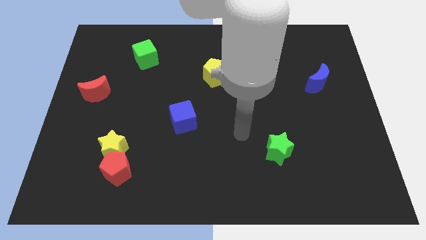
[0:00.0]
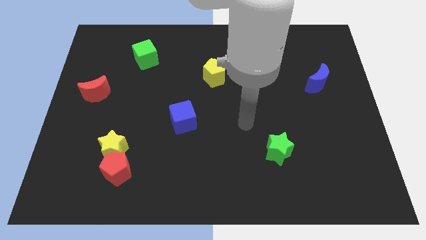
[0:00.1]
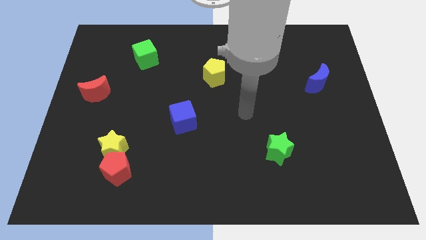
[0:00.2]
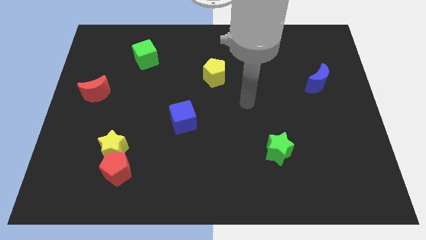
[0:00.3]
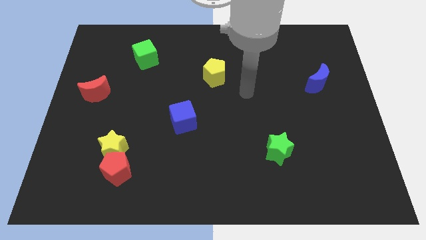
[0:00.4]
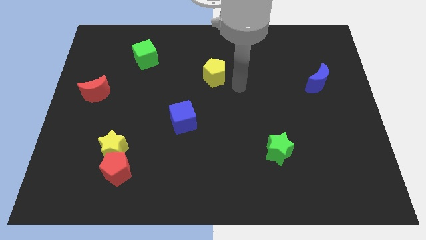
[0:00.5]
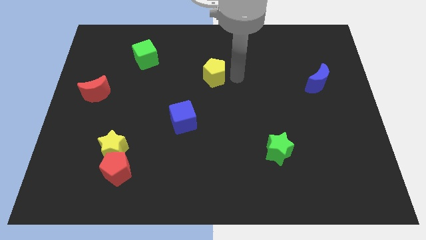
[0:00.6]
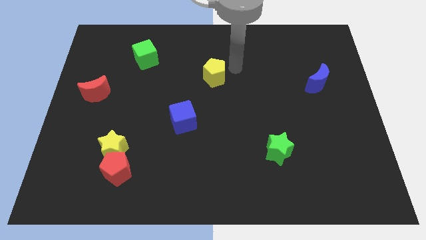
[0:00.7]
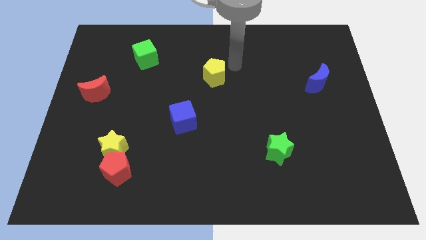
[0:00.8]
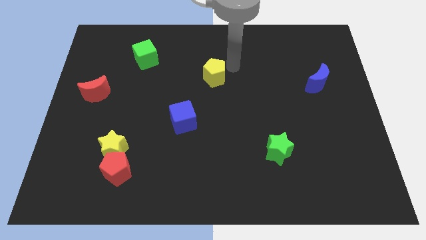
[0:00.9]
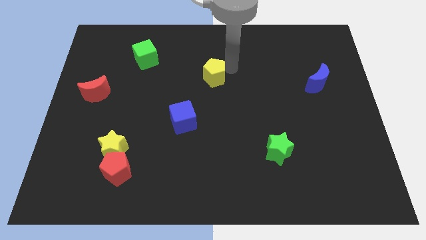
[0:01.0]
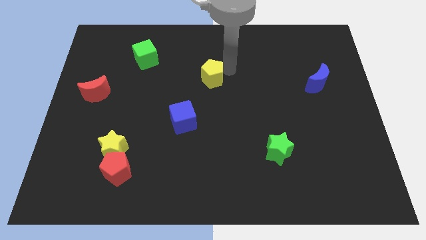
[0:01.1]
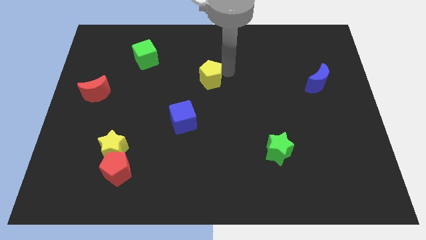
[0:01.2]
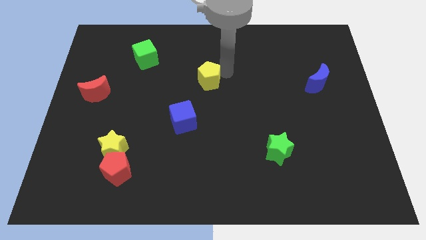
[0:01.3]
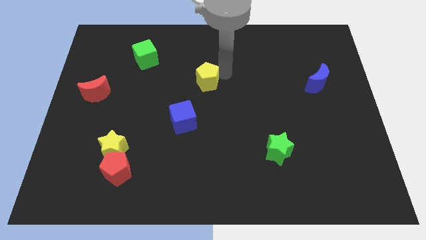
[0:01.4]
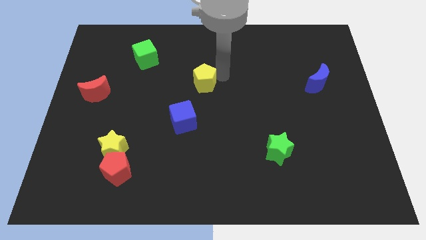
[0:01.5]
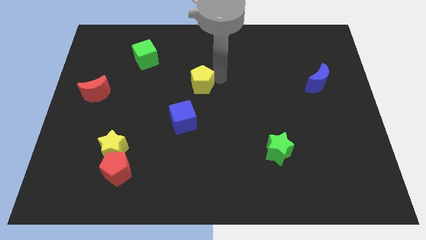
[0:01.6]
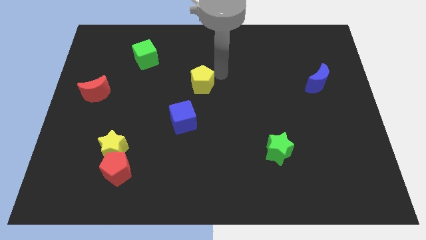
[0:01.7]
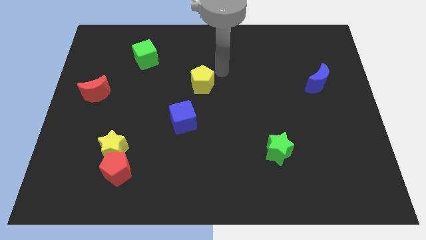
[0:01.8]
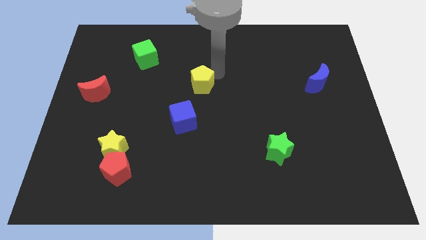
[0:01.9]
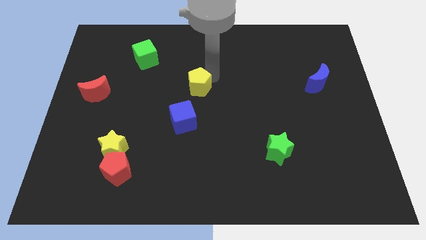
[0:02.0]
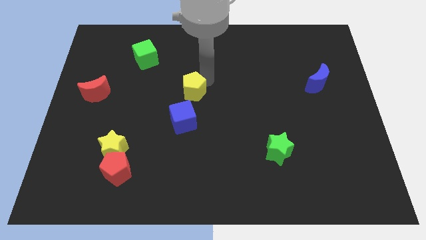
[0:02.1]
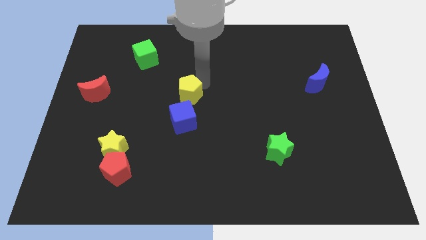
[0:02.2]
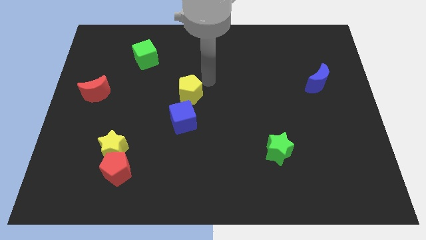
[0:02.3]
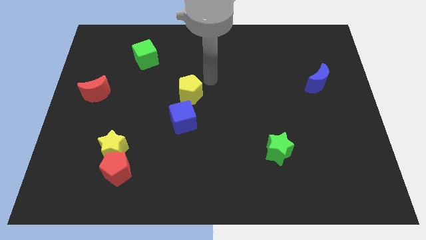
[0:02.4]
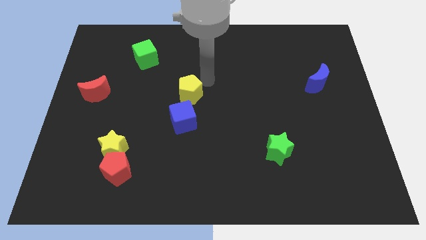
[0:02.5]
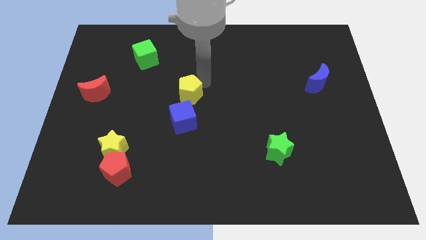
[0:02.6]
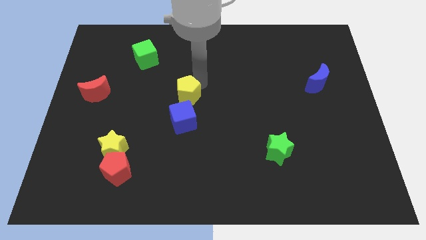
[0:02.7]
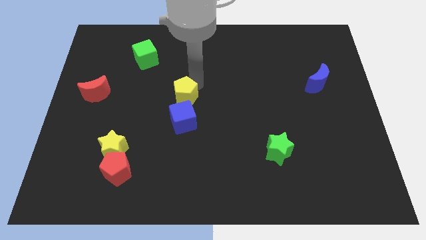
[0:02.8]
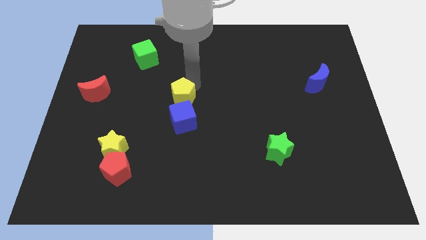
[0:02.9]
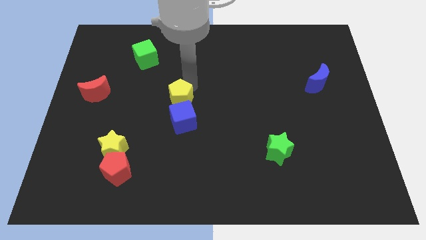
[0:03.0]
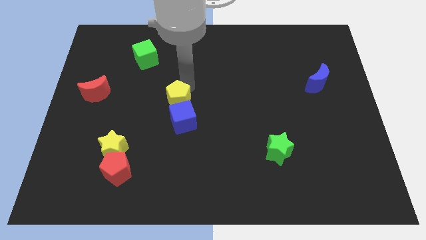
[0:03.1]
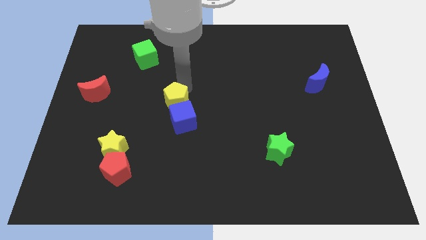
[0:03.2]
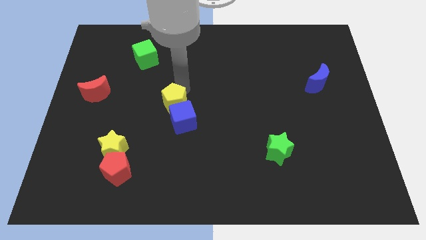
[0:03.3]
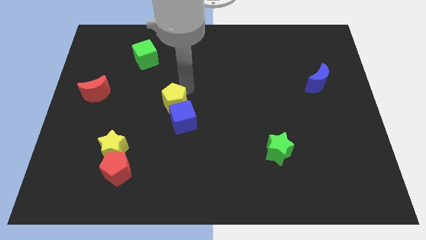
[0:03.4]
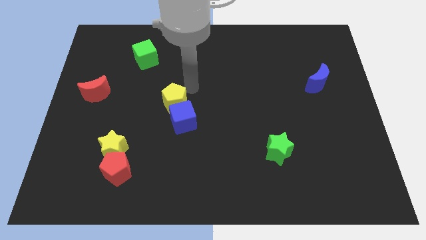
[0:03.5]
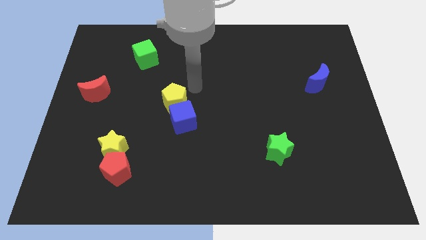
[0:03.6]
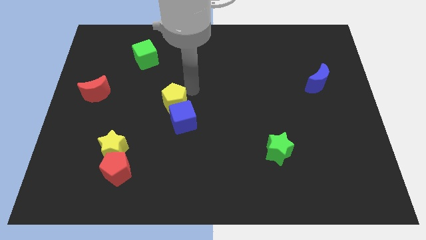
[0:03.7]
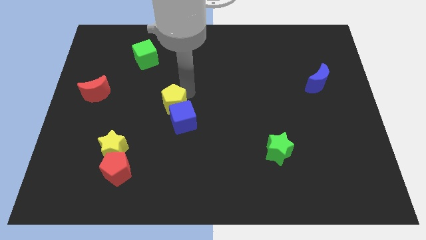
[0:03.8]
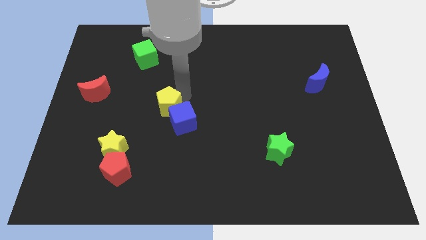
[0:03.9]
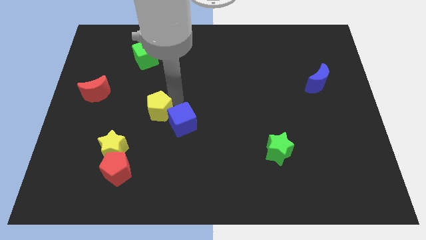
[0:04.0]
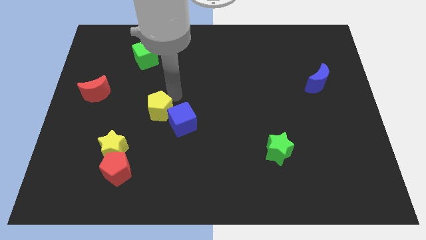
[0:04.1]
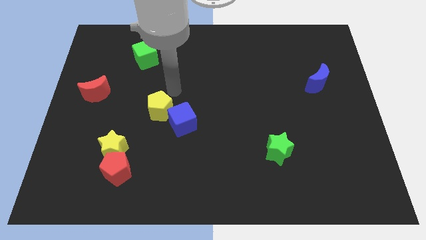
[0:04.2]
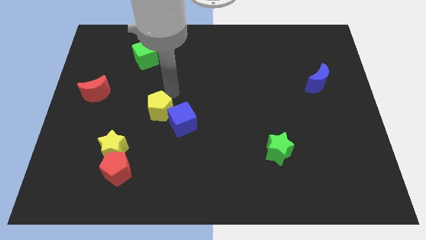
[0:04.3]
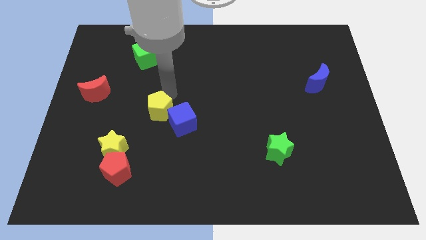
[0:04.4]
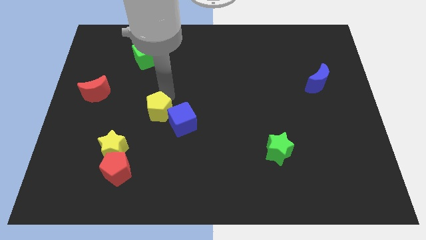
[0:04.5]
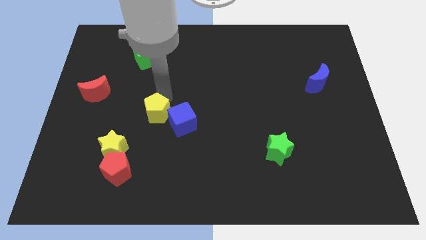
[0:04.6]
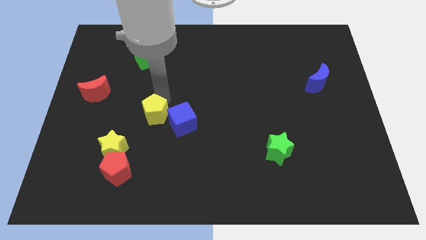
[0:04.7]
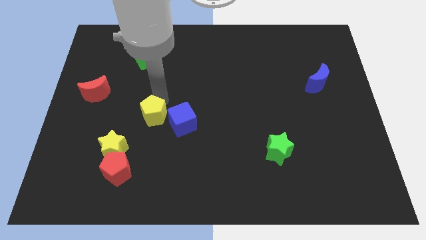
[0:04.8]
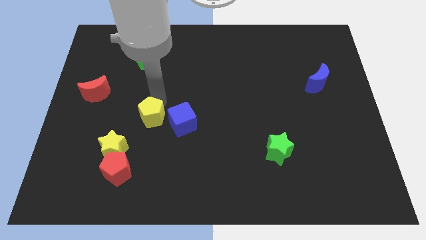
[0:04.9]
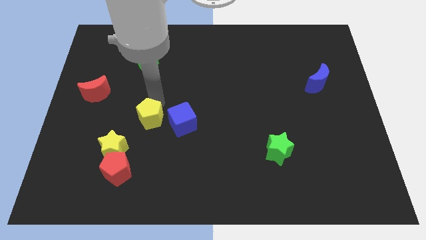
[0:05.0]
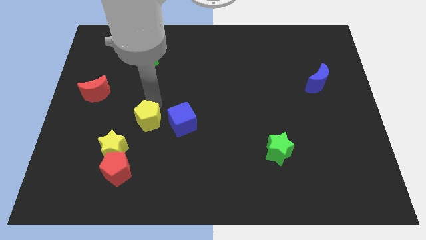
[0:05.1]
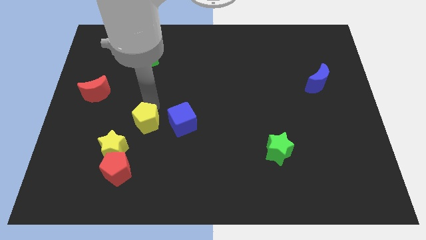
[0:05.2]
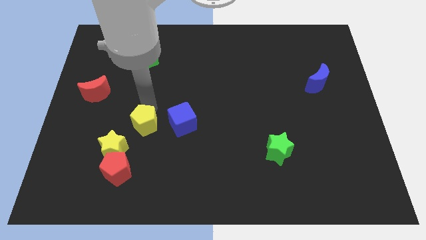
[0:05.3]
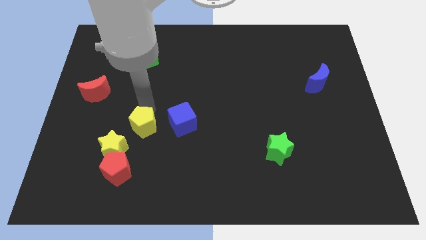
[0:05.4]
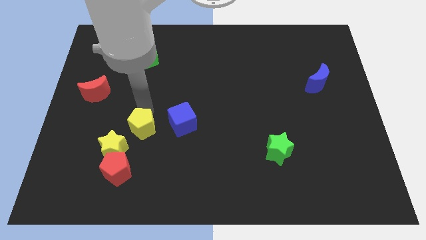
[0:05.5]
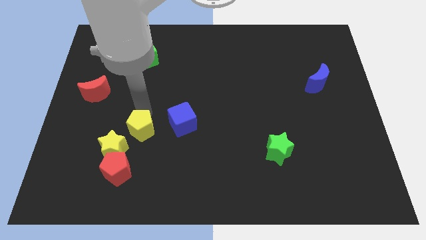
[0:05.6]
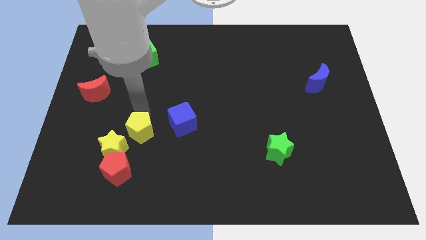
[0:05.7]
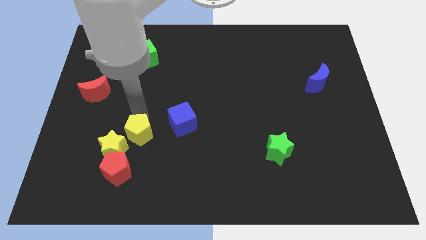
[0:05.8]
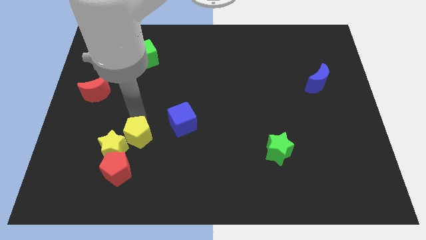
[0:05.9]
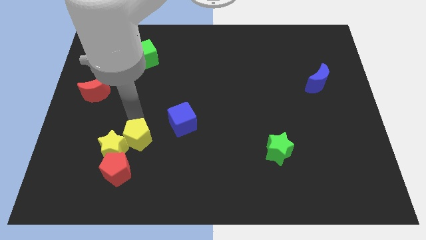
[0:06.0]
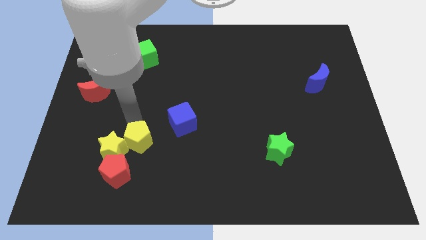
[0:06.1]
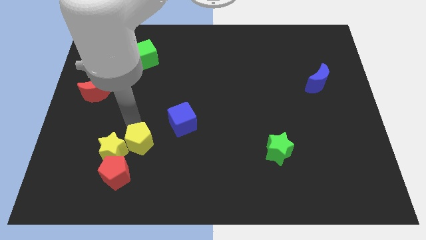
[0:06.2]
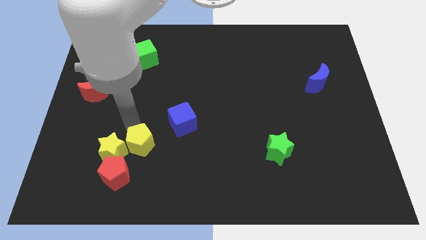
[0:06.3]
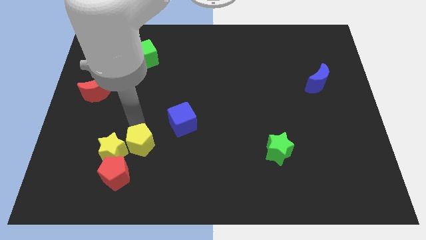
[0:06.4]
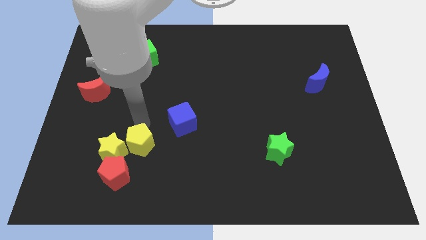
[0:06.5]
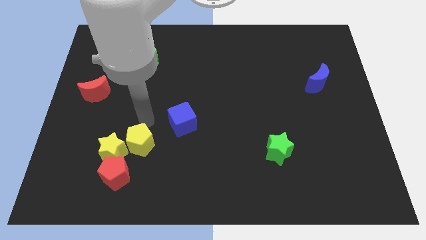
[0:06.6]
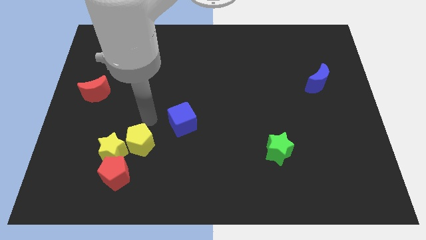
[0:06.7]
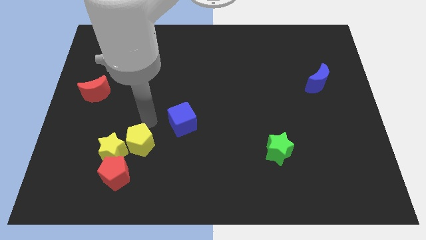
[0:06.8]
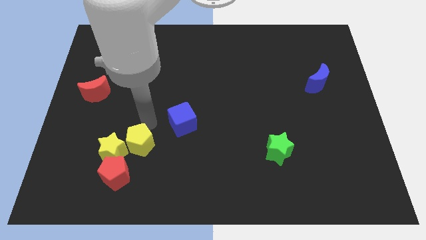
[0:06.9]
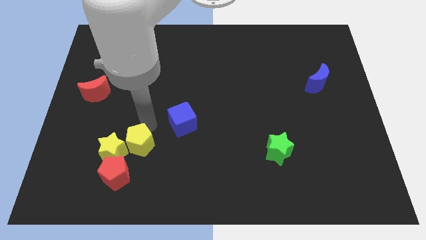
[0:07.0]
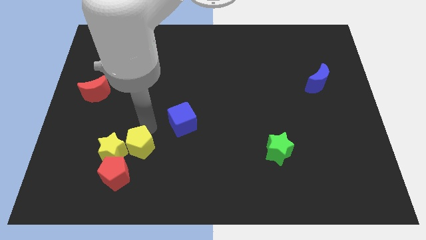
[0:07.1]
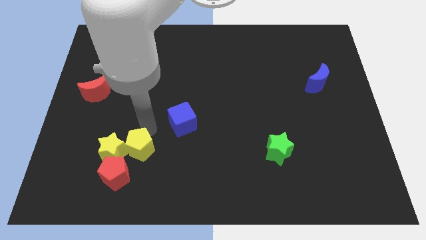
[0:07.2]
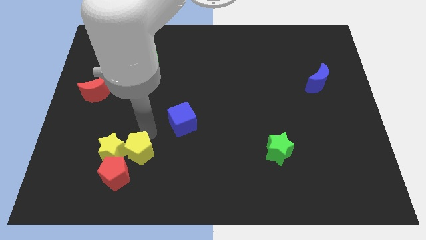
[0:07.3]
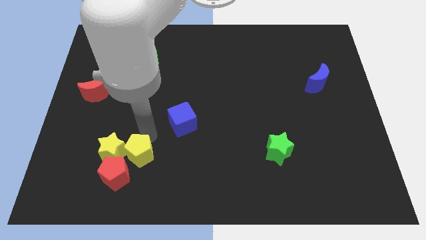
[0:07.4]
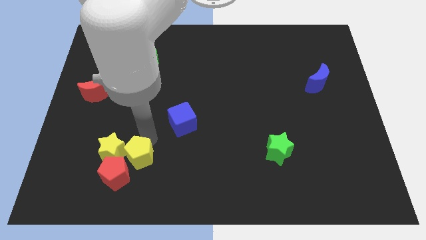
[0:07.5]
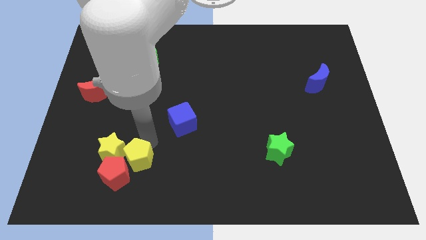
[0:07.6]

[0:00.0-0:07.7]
put the yellow pentagon close to the red pentagon
